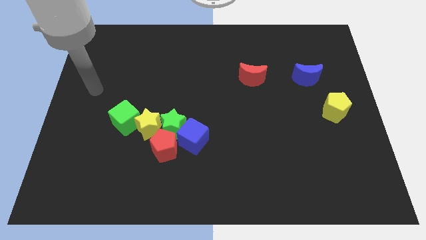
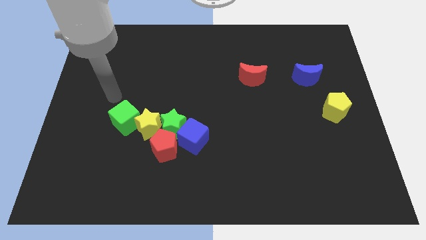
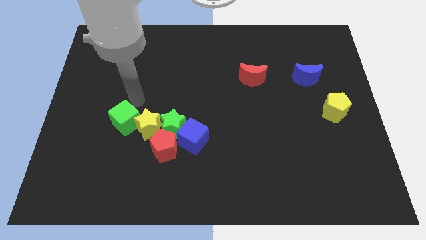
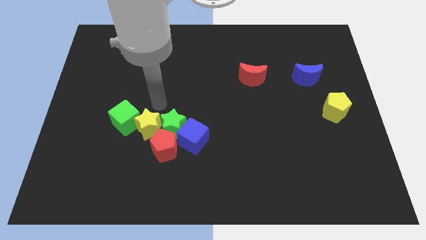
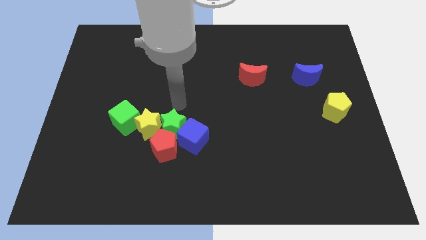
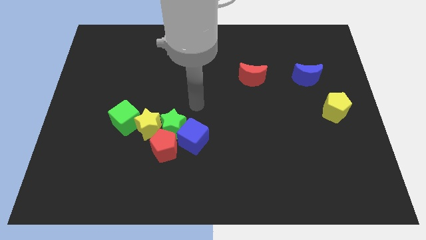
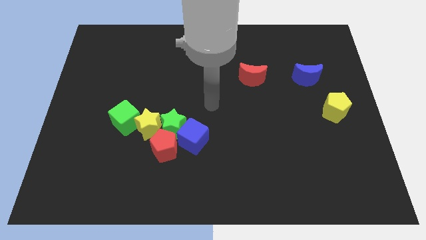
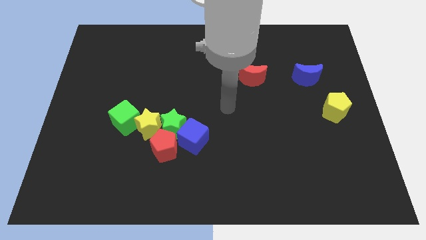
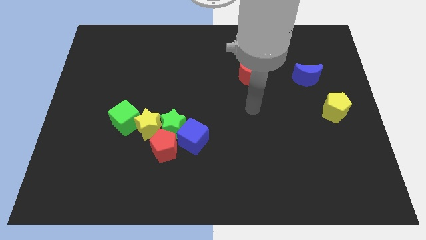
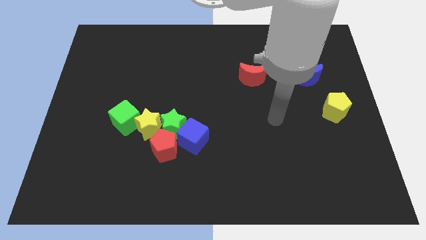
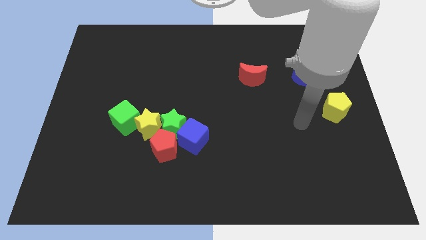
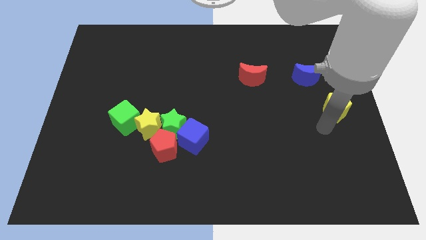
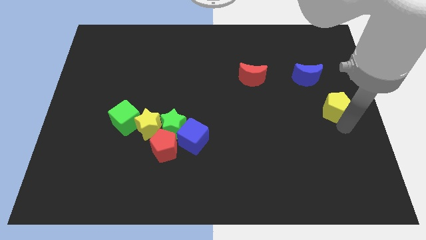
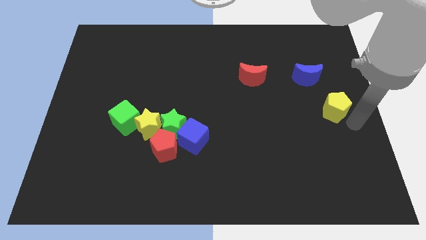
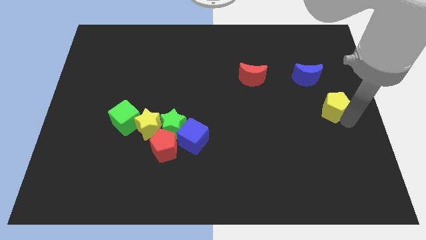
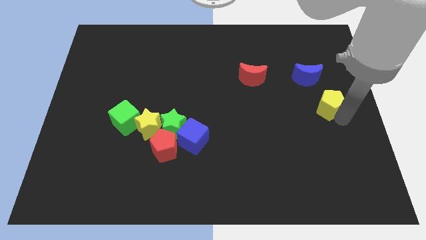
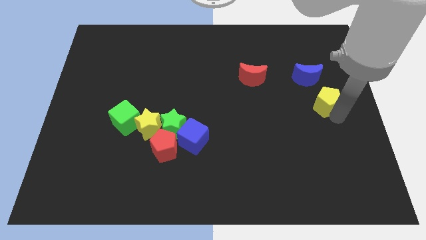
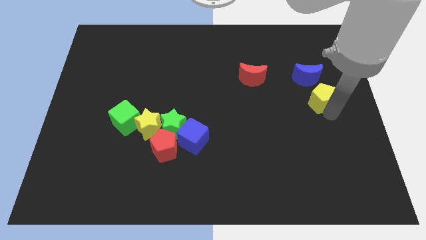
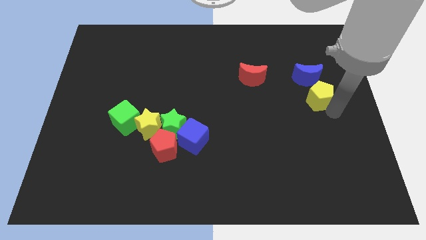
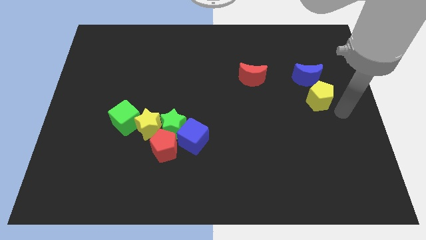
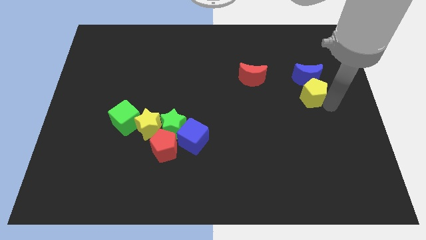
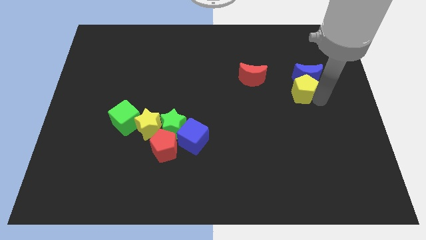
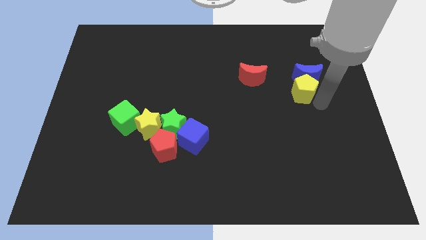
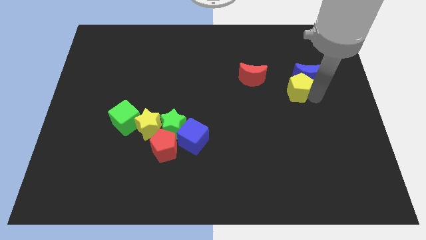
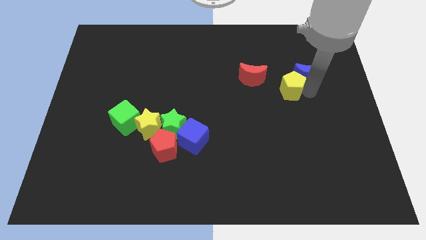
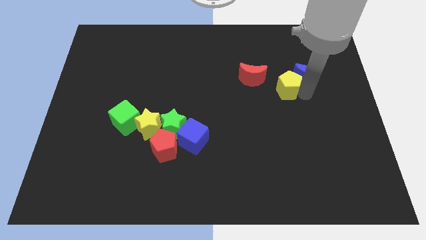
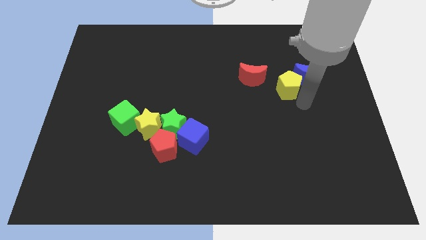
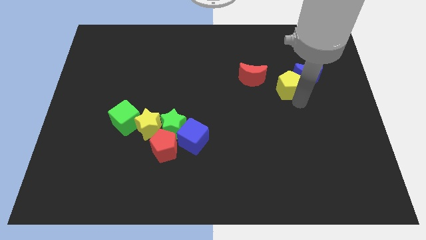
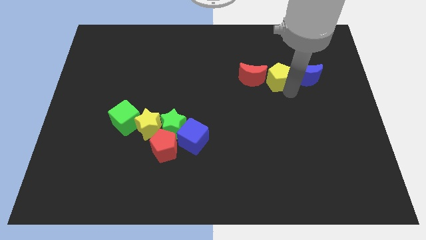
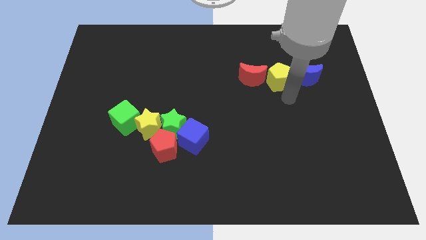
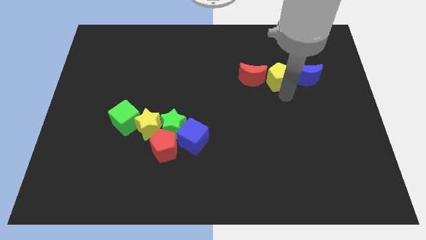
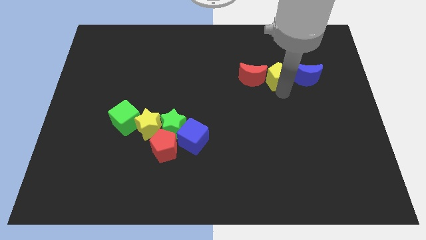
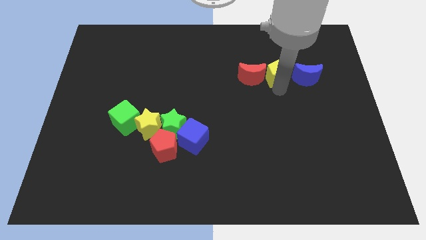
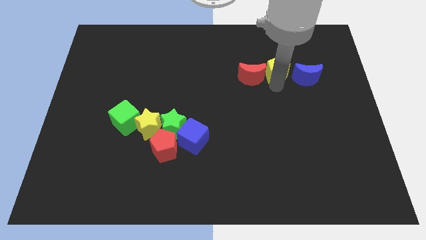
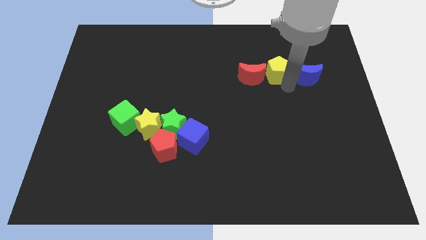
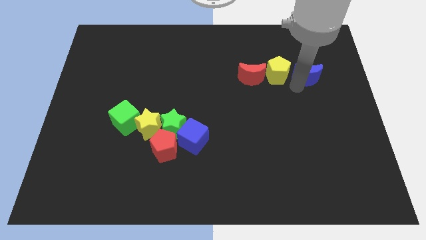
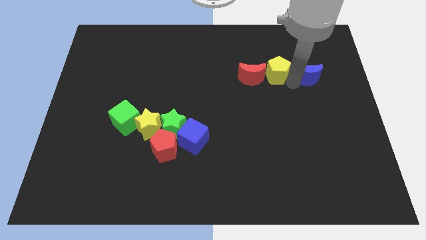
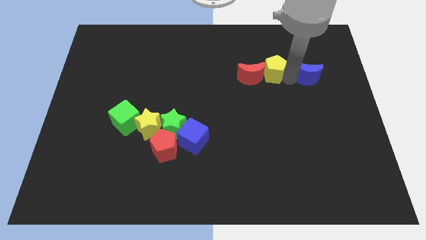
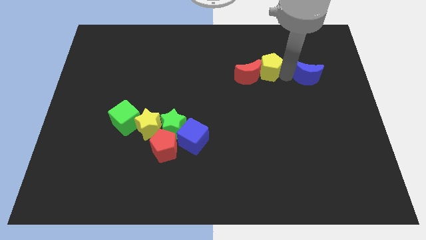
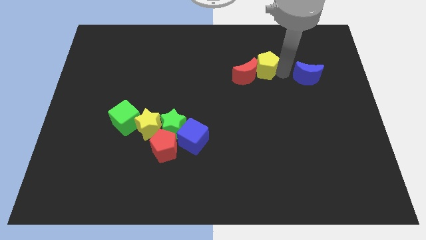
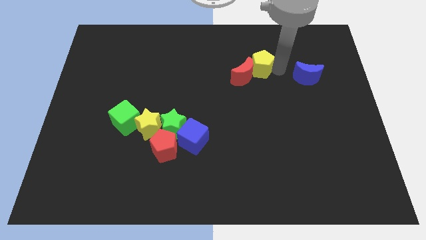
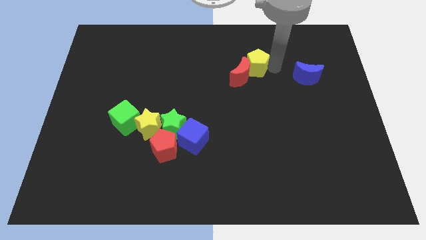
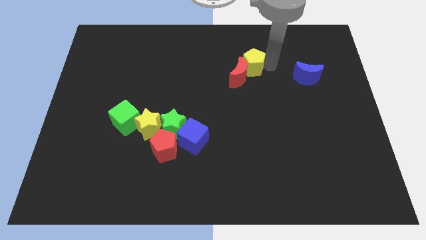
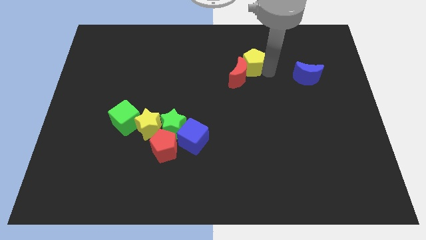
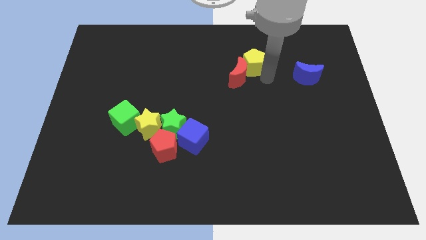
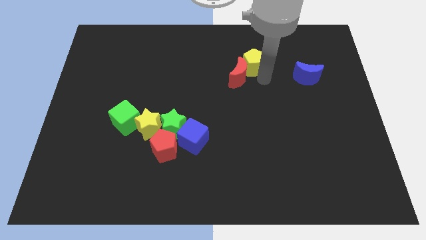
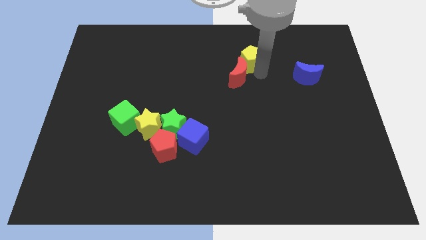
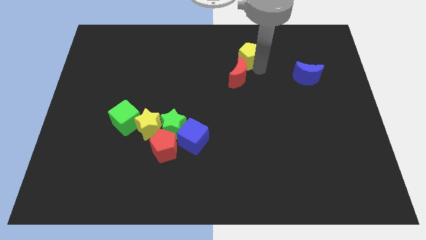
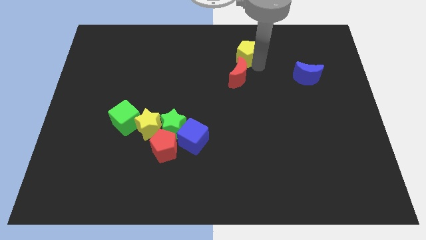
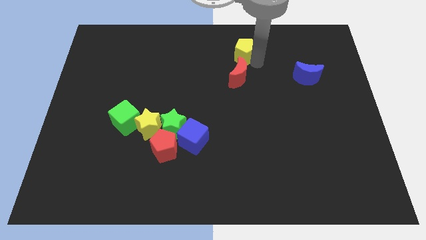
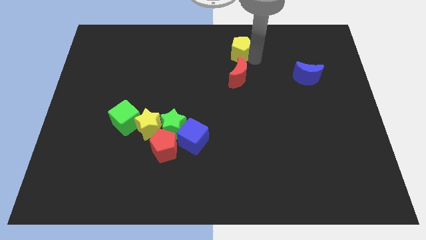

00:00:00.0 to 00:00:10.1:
move the yellow pentagon to the towards your base
